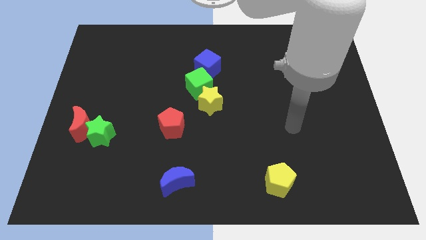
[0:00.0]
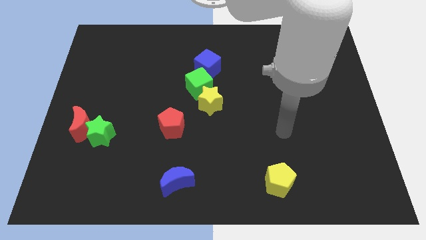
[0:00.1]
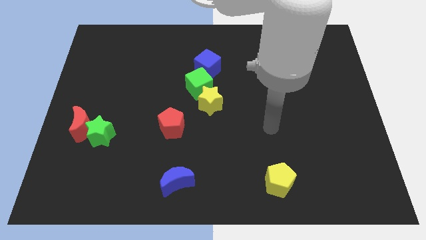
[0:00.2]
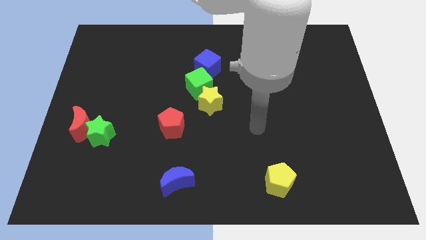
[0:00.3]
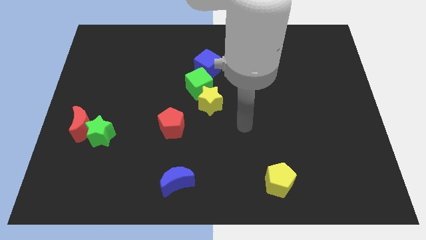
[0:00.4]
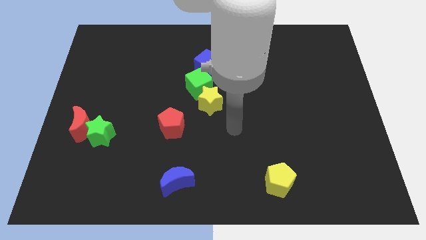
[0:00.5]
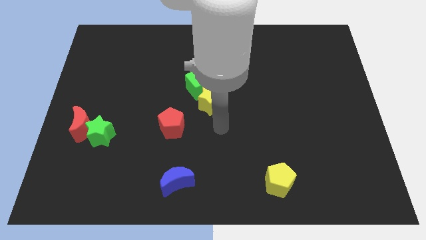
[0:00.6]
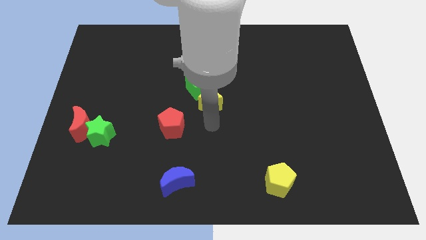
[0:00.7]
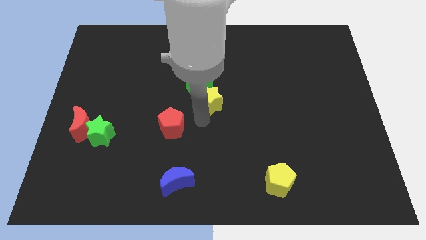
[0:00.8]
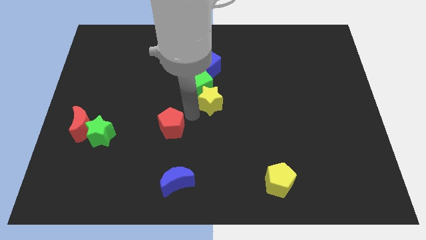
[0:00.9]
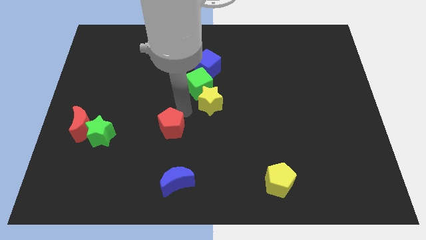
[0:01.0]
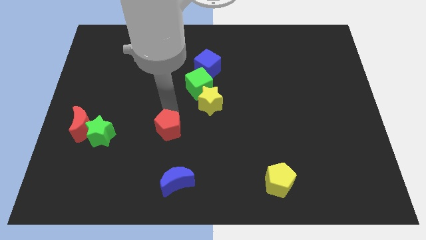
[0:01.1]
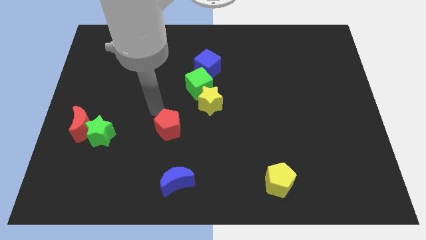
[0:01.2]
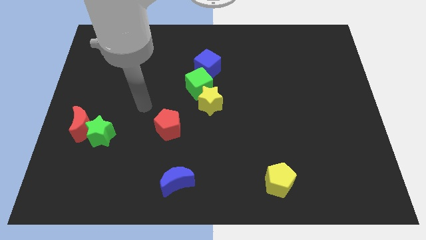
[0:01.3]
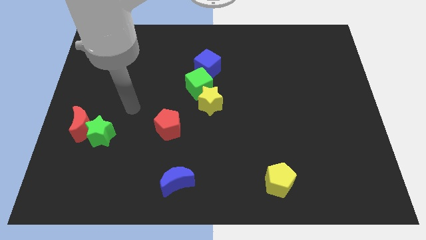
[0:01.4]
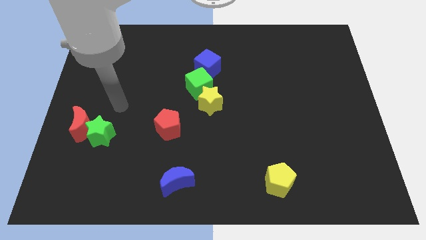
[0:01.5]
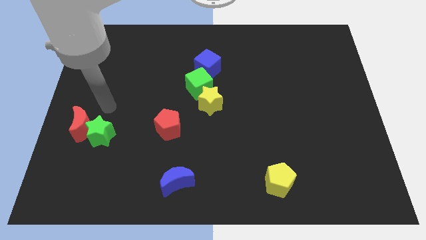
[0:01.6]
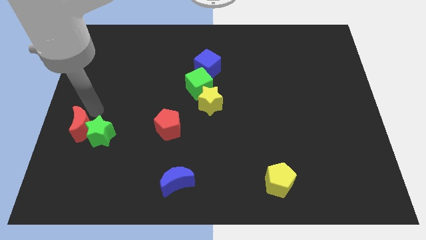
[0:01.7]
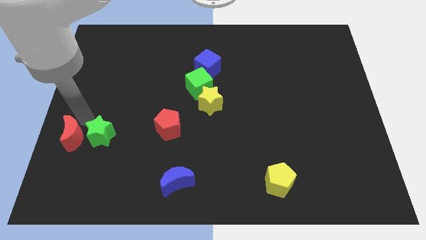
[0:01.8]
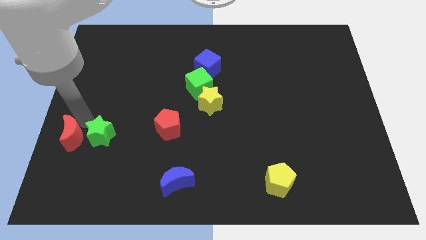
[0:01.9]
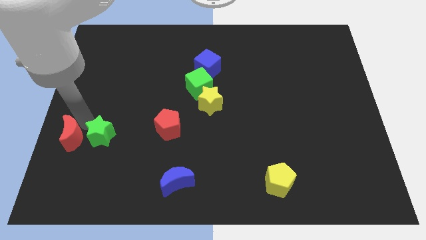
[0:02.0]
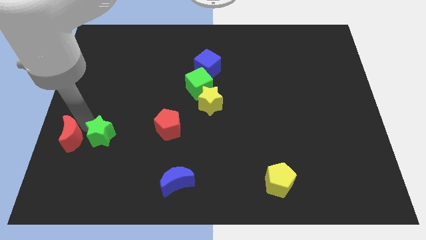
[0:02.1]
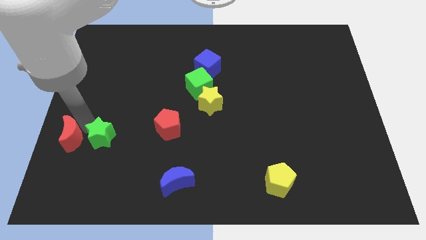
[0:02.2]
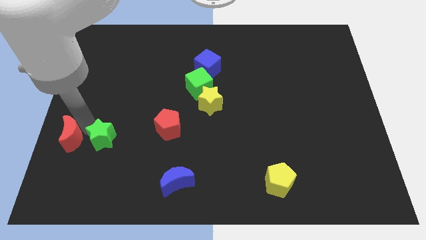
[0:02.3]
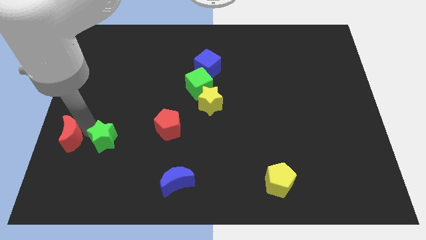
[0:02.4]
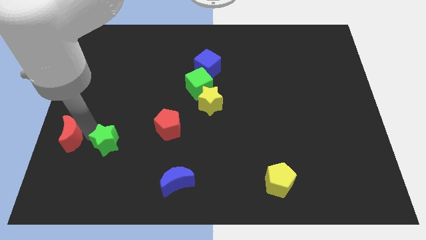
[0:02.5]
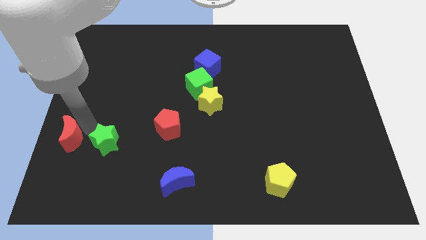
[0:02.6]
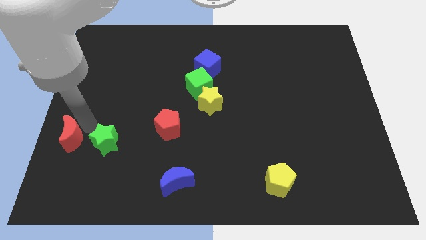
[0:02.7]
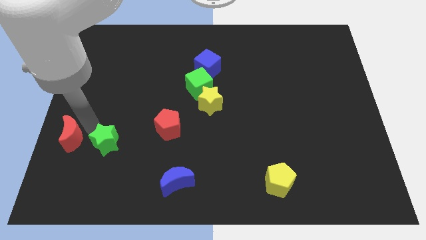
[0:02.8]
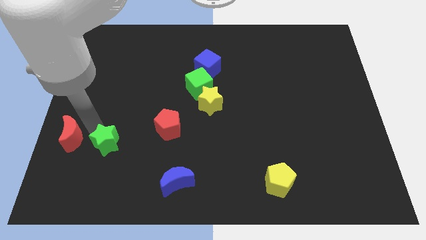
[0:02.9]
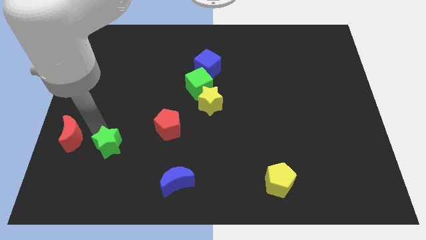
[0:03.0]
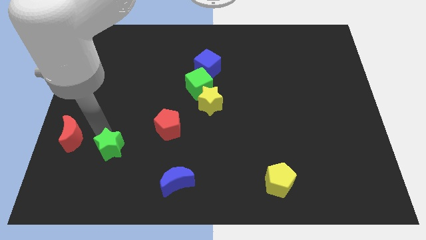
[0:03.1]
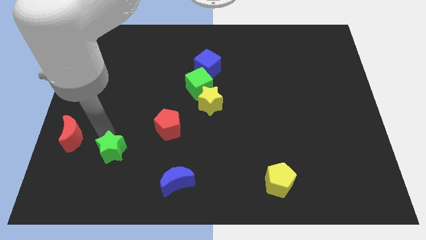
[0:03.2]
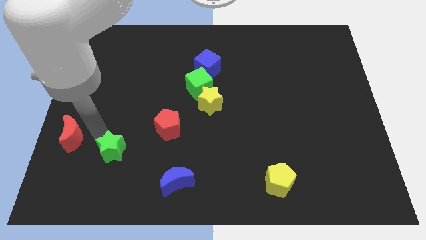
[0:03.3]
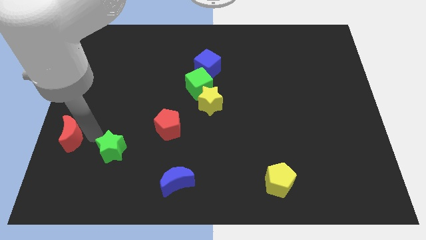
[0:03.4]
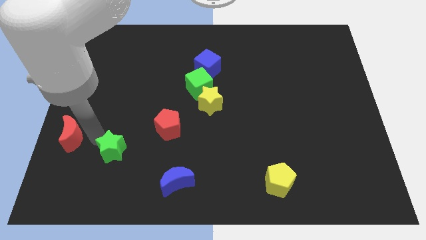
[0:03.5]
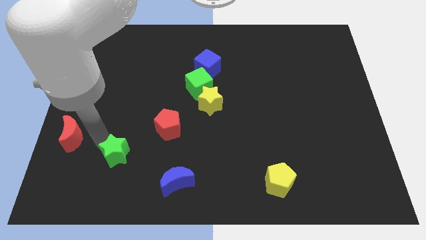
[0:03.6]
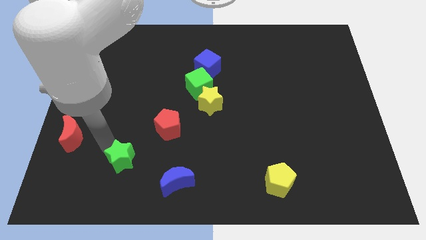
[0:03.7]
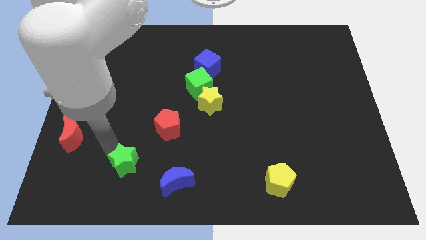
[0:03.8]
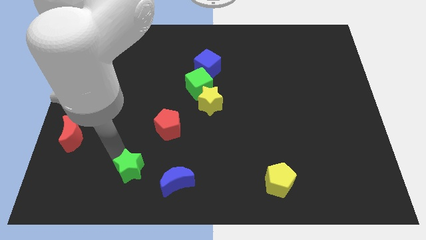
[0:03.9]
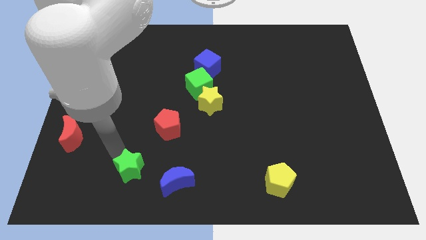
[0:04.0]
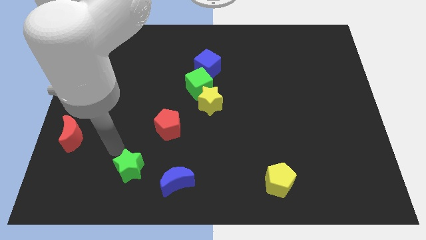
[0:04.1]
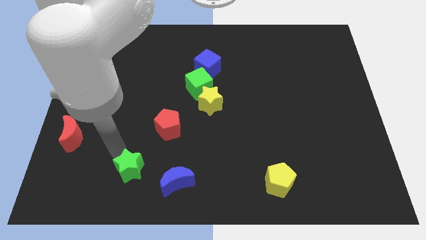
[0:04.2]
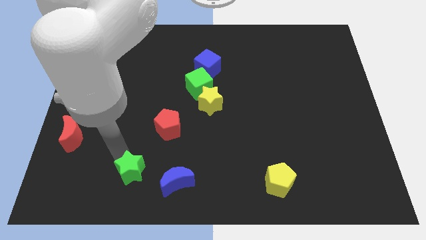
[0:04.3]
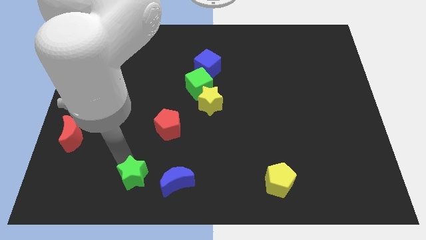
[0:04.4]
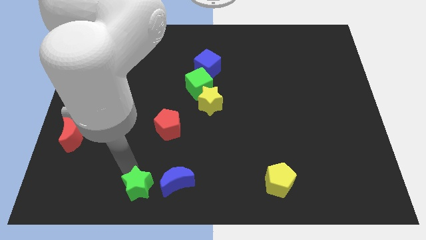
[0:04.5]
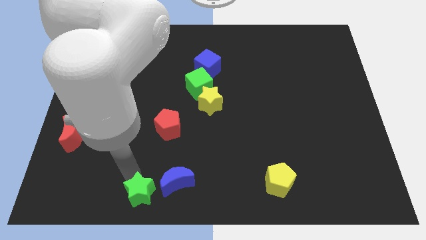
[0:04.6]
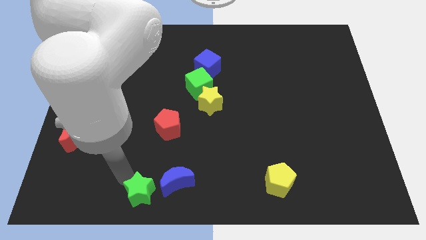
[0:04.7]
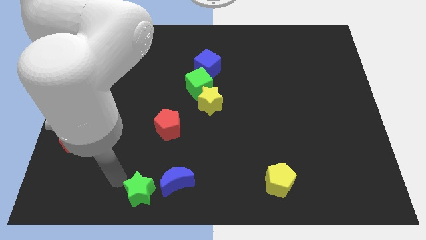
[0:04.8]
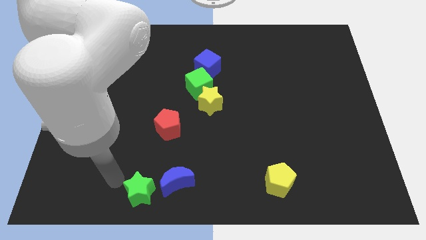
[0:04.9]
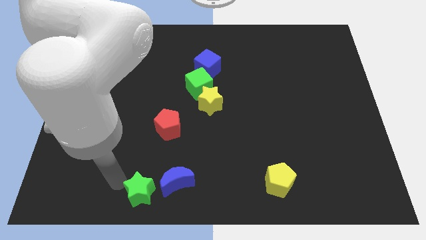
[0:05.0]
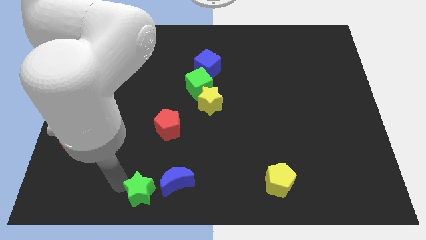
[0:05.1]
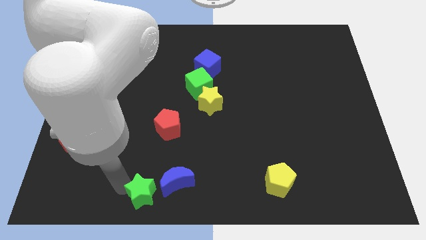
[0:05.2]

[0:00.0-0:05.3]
slide the green star to the bottom

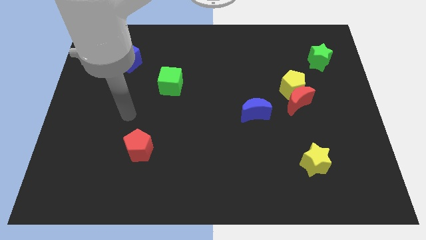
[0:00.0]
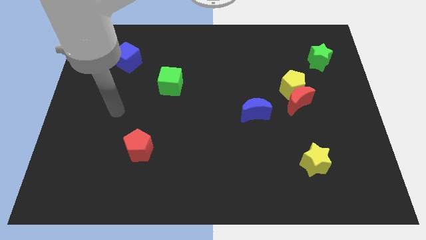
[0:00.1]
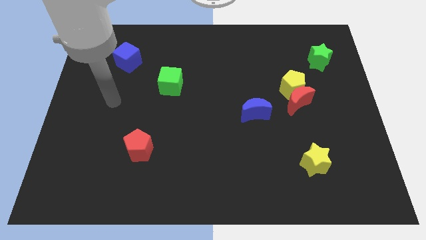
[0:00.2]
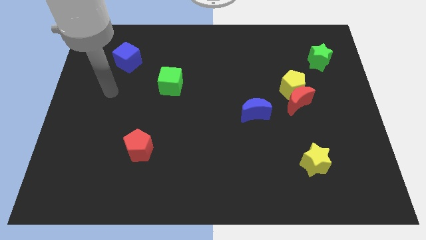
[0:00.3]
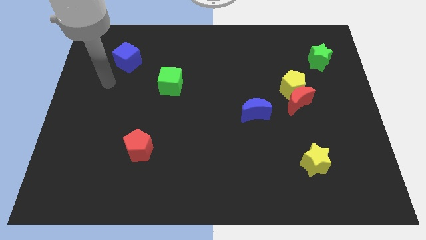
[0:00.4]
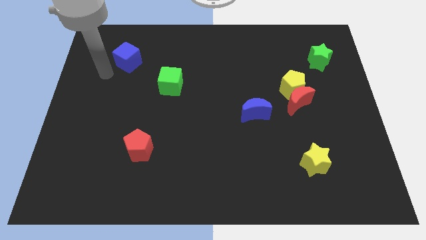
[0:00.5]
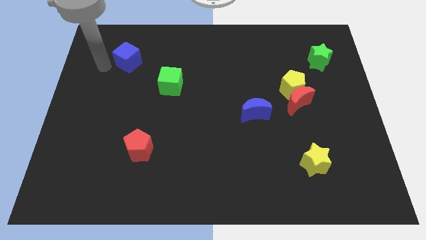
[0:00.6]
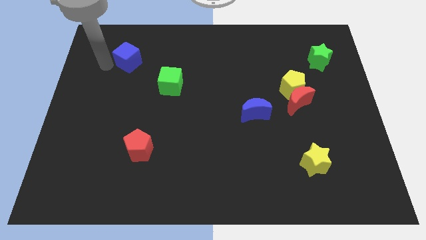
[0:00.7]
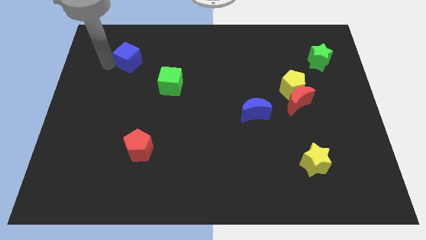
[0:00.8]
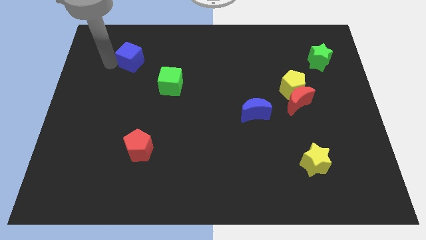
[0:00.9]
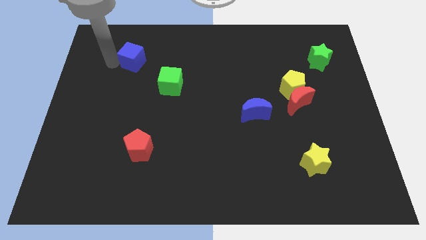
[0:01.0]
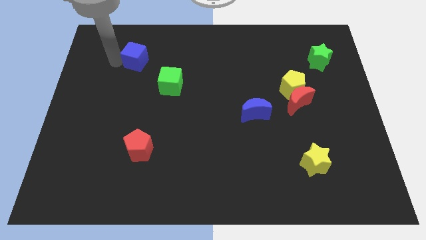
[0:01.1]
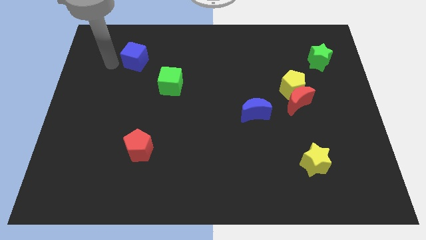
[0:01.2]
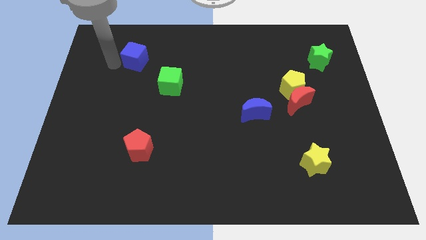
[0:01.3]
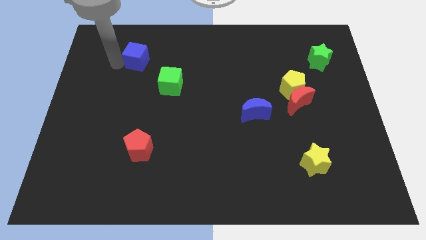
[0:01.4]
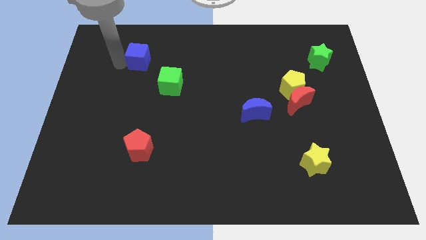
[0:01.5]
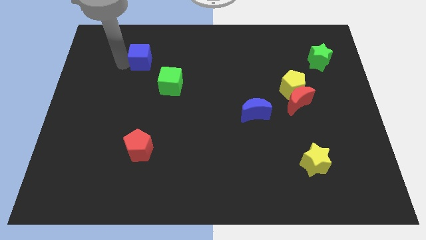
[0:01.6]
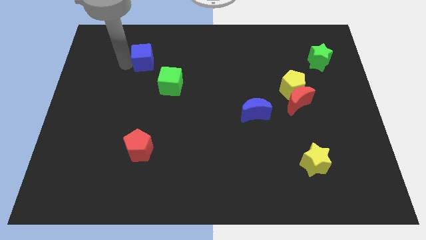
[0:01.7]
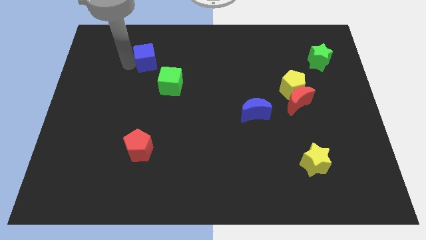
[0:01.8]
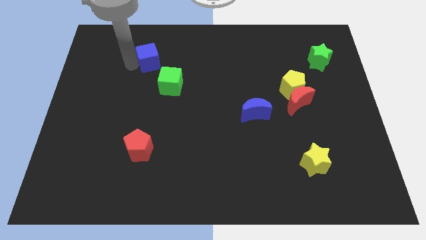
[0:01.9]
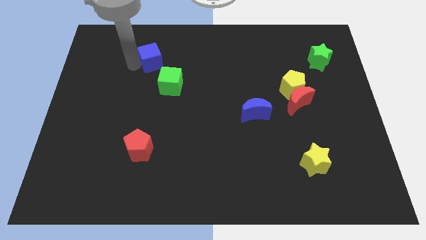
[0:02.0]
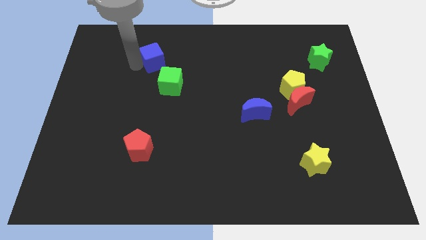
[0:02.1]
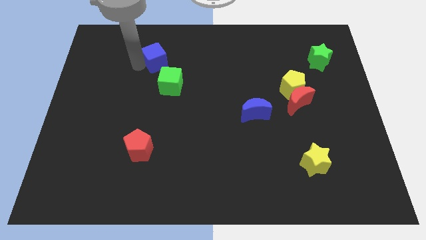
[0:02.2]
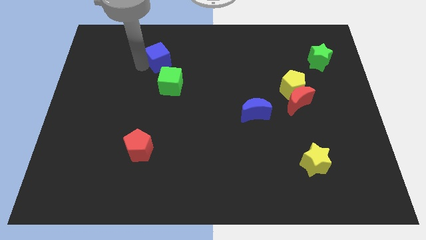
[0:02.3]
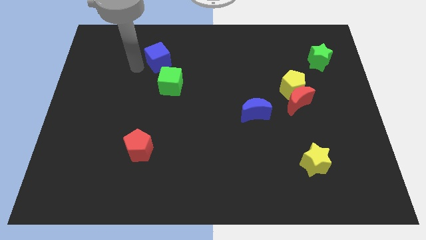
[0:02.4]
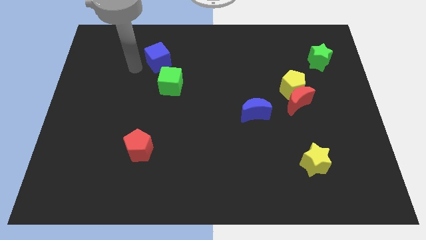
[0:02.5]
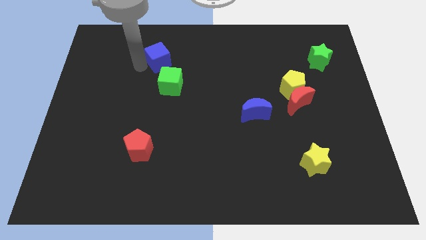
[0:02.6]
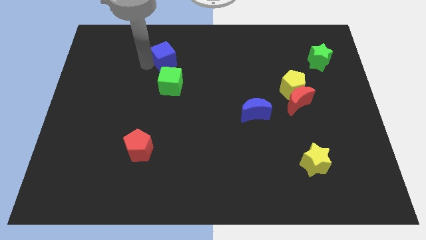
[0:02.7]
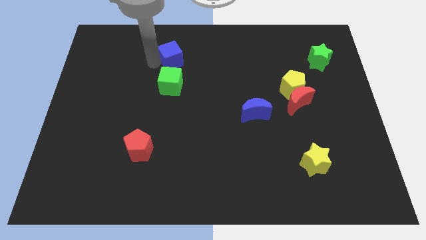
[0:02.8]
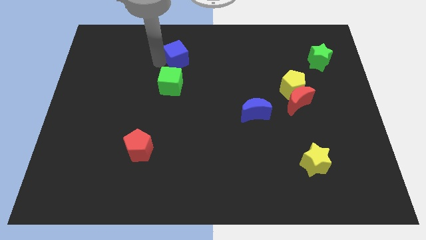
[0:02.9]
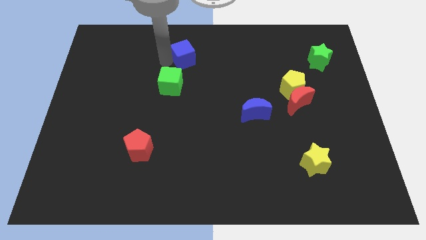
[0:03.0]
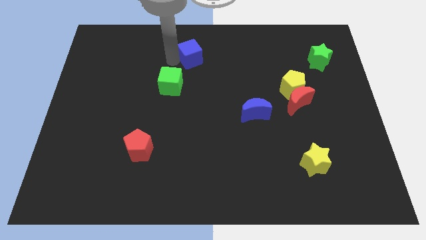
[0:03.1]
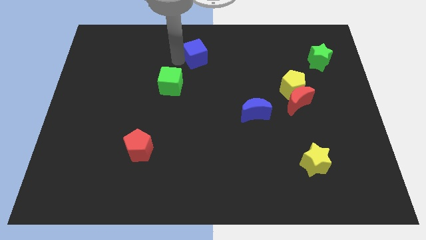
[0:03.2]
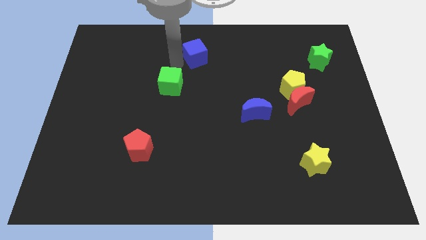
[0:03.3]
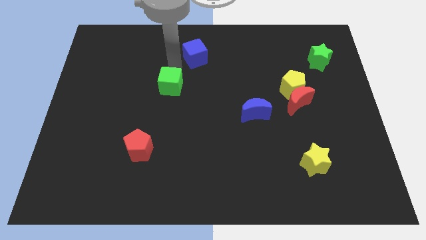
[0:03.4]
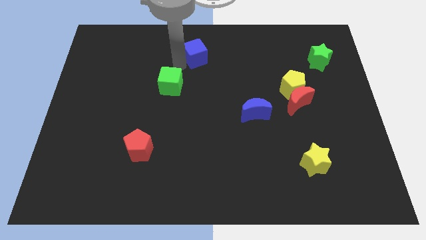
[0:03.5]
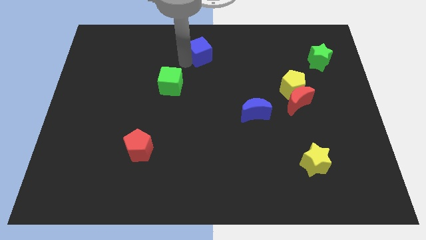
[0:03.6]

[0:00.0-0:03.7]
put the blue cube to the towards your base
